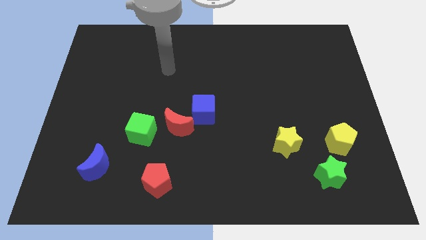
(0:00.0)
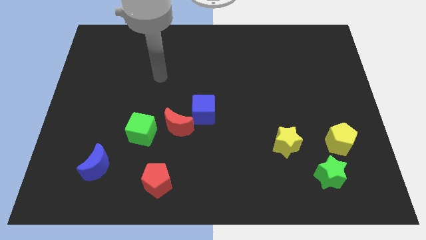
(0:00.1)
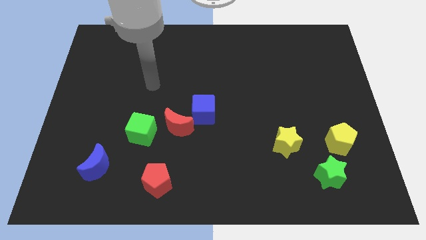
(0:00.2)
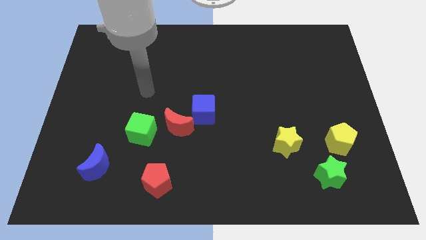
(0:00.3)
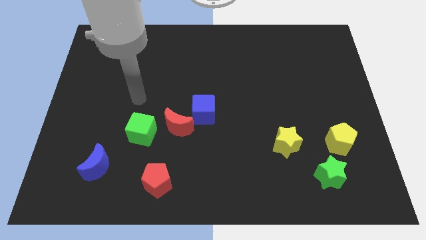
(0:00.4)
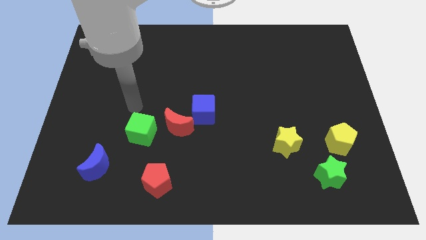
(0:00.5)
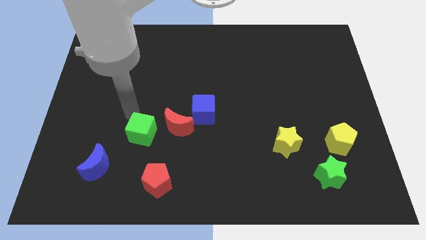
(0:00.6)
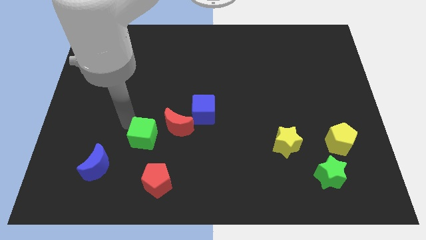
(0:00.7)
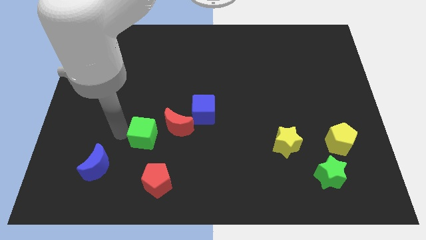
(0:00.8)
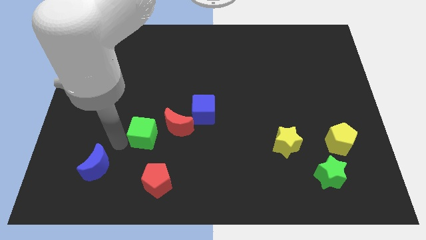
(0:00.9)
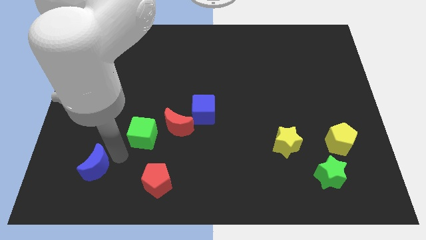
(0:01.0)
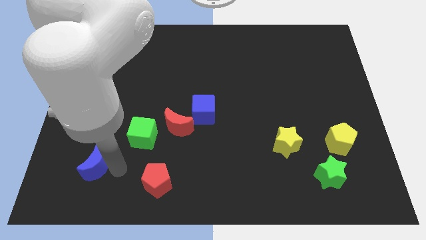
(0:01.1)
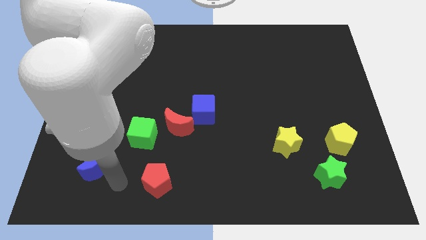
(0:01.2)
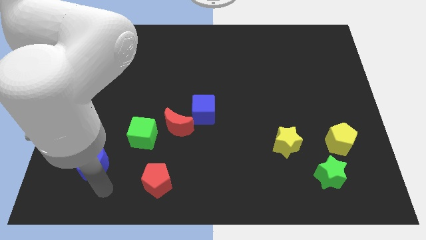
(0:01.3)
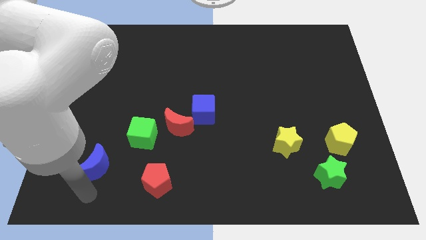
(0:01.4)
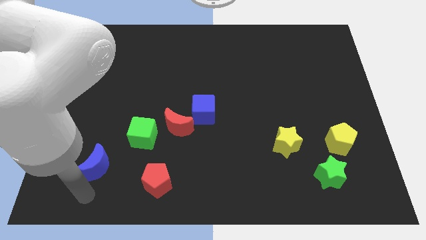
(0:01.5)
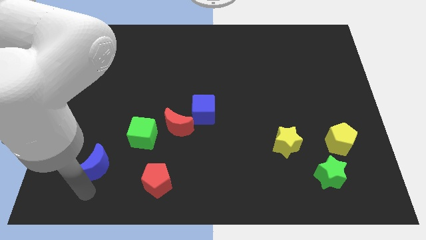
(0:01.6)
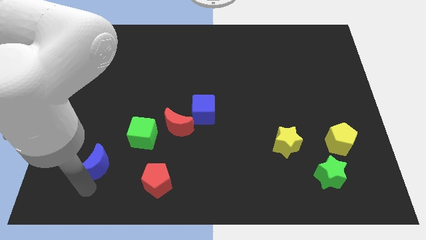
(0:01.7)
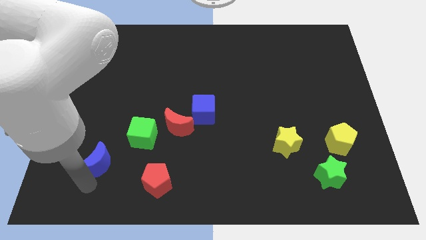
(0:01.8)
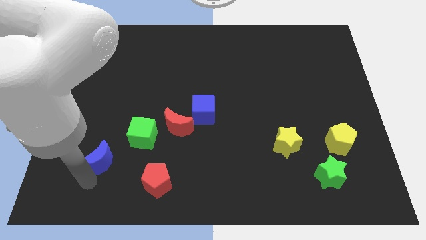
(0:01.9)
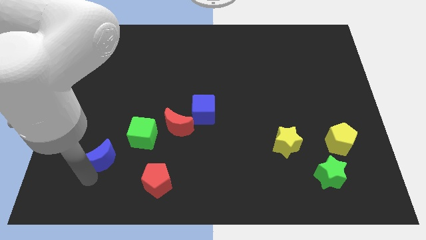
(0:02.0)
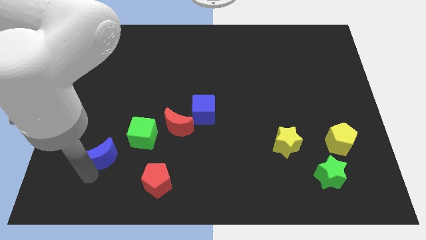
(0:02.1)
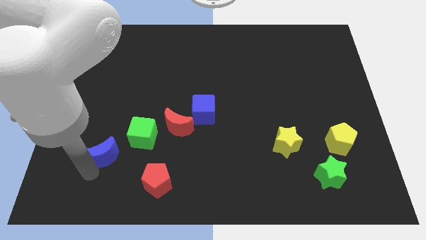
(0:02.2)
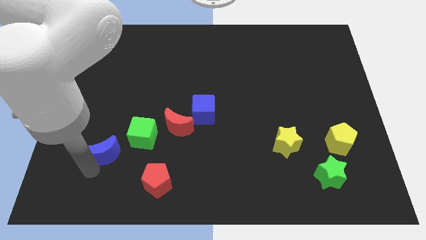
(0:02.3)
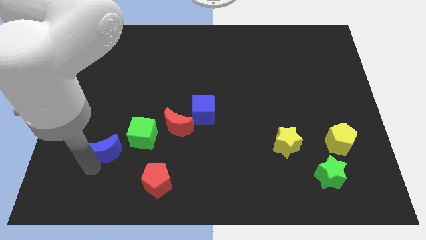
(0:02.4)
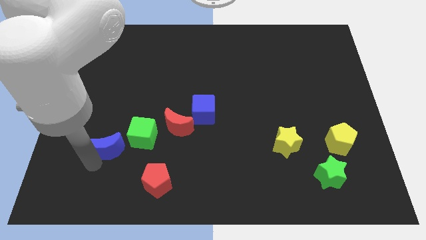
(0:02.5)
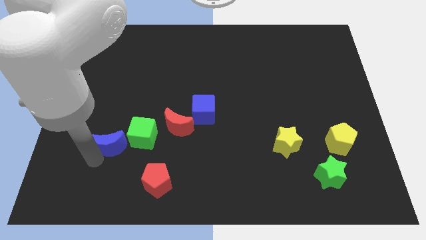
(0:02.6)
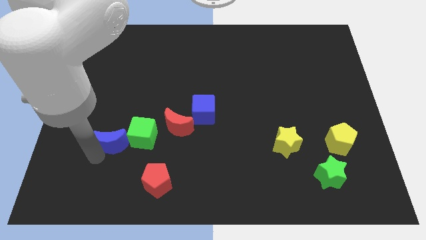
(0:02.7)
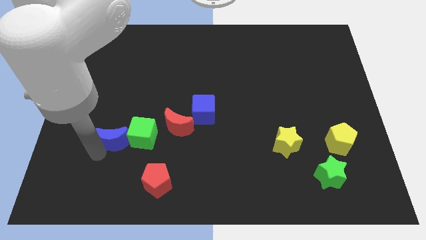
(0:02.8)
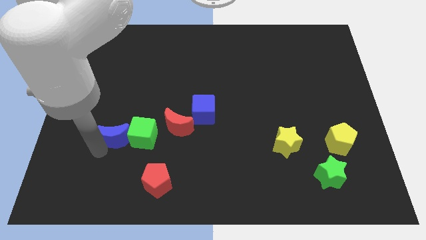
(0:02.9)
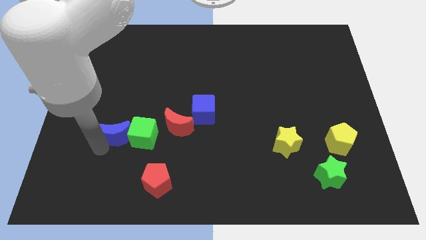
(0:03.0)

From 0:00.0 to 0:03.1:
move the blue moon upwards and then right a little bit

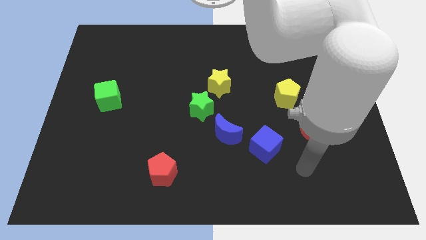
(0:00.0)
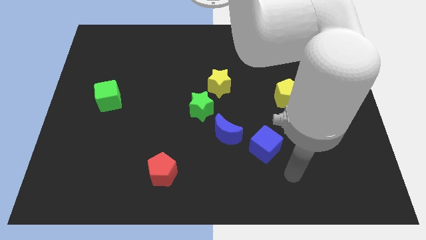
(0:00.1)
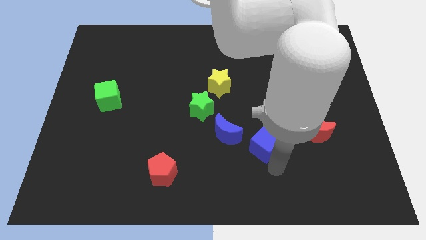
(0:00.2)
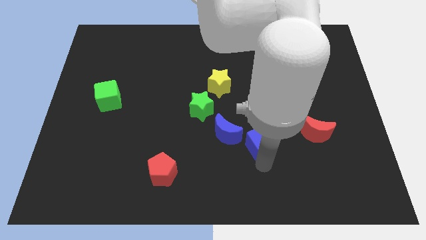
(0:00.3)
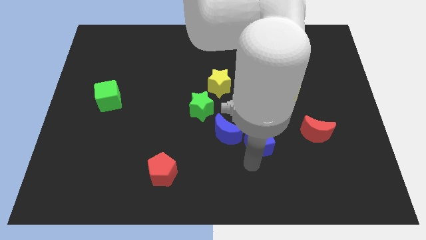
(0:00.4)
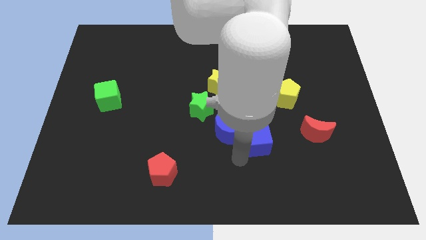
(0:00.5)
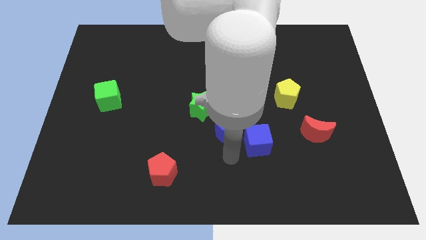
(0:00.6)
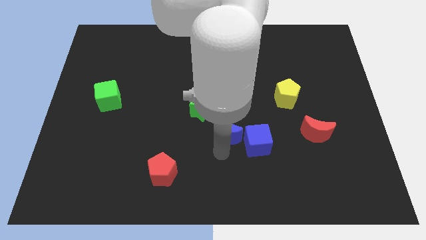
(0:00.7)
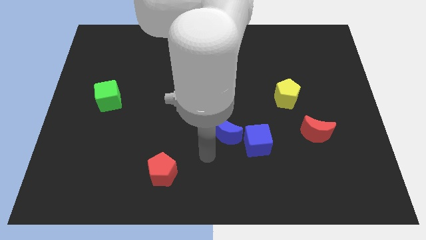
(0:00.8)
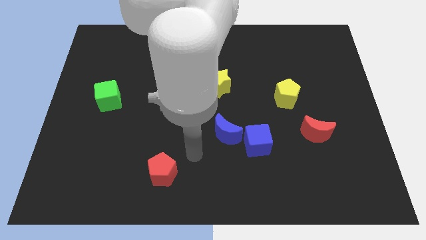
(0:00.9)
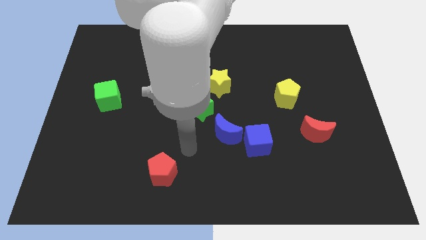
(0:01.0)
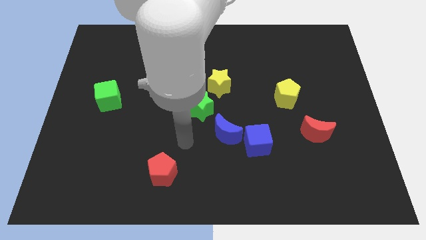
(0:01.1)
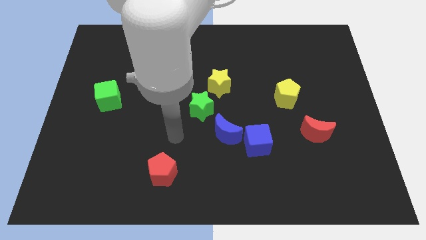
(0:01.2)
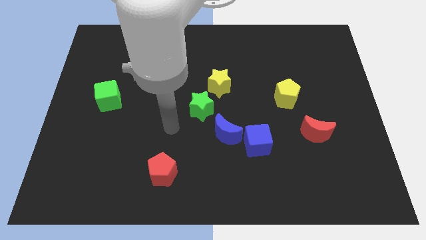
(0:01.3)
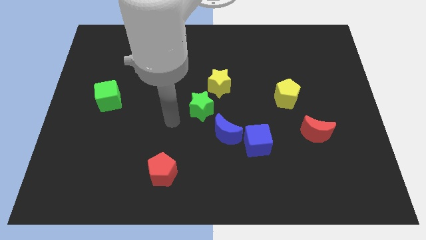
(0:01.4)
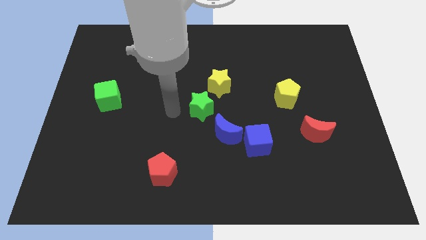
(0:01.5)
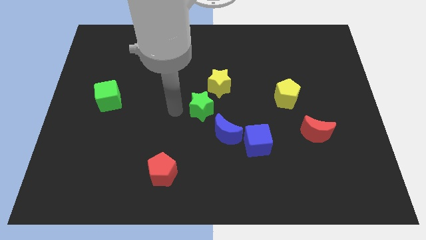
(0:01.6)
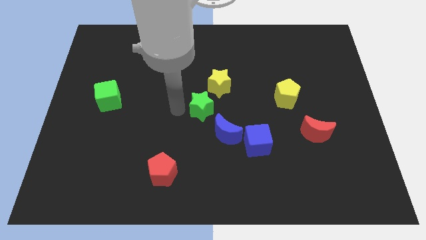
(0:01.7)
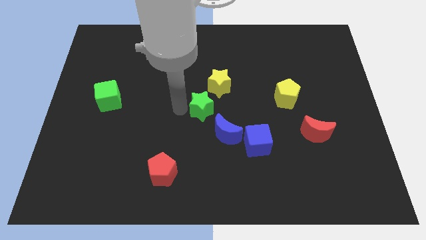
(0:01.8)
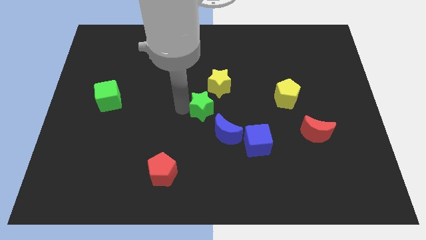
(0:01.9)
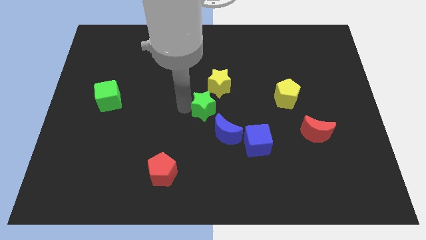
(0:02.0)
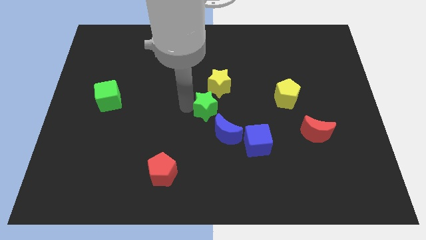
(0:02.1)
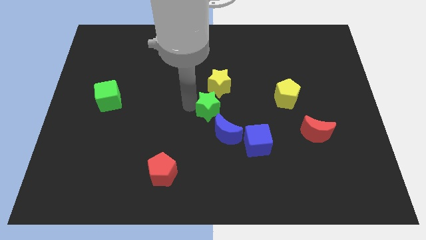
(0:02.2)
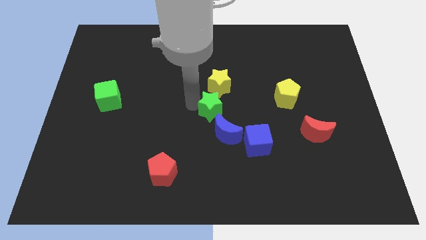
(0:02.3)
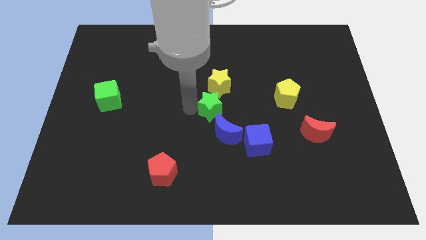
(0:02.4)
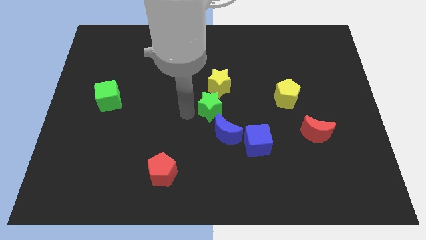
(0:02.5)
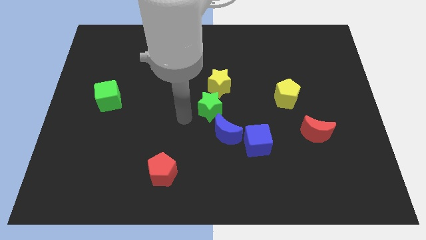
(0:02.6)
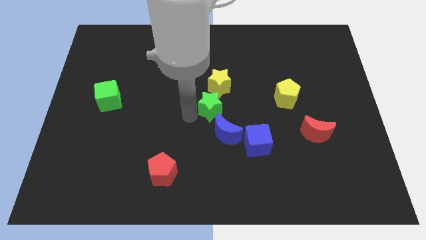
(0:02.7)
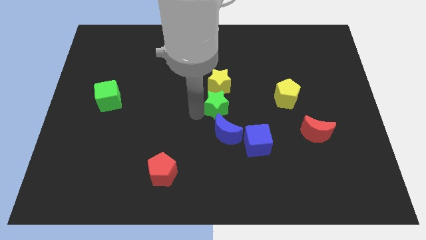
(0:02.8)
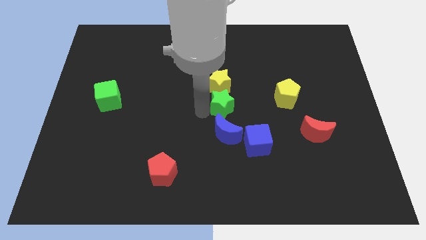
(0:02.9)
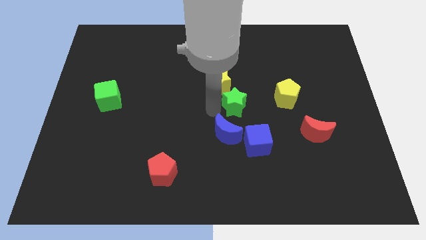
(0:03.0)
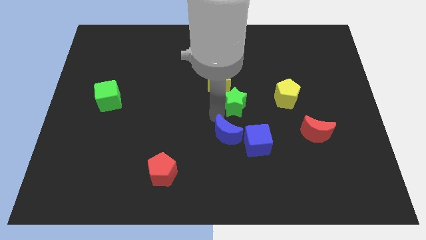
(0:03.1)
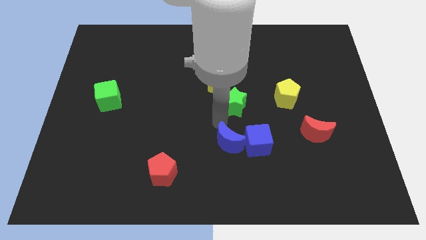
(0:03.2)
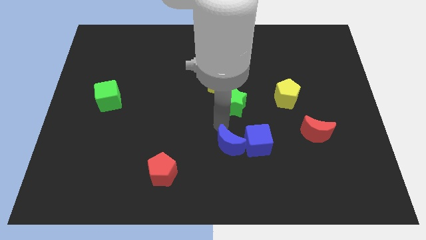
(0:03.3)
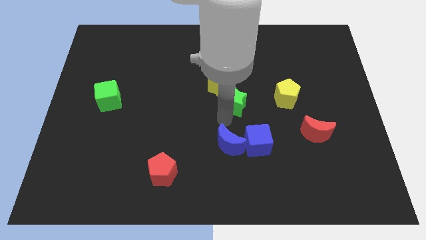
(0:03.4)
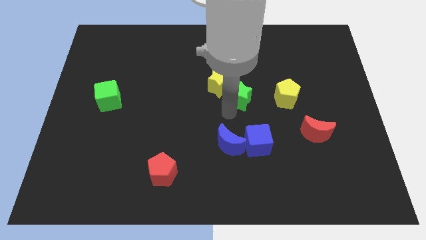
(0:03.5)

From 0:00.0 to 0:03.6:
slightly slide the green star upwards and then to the right

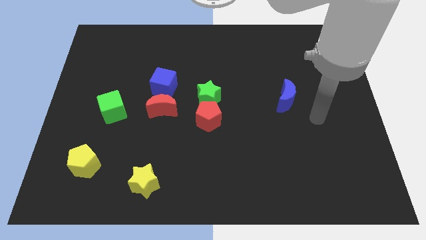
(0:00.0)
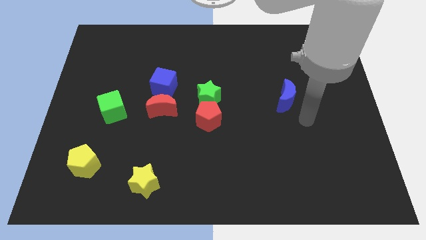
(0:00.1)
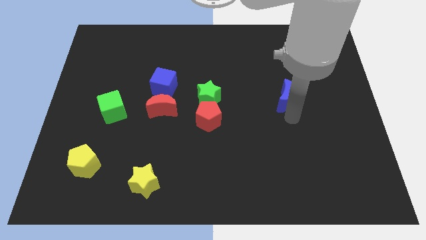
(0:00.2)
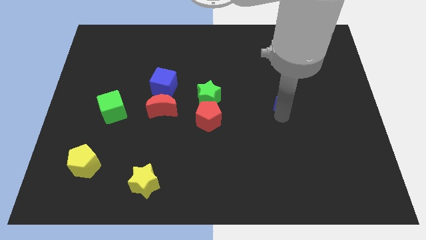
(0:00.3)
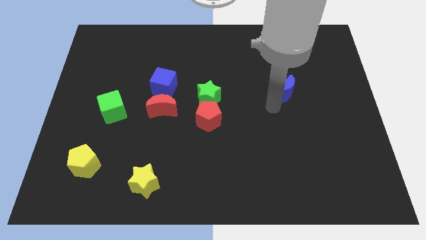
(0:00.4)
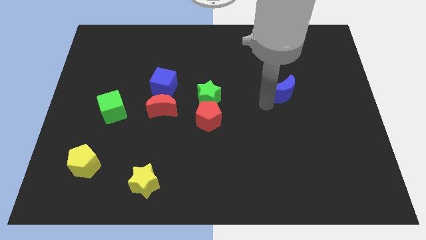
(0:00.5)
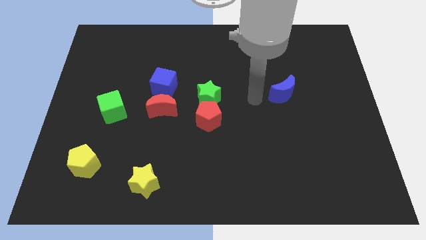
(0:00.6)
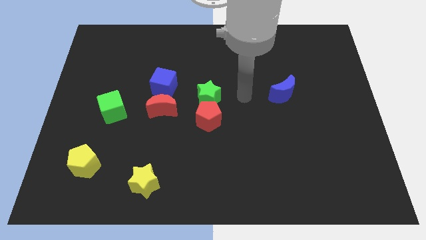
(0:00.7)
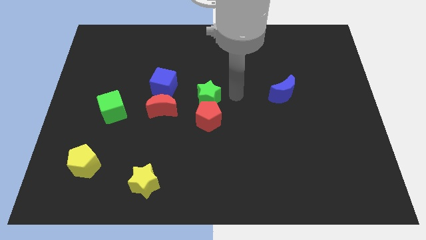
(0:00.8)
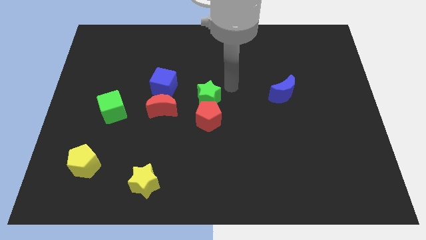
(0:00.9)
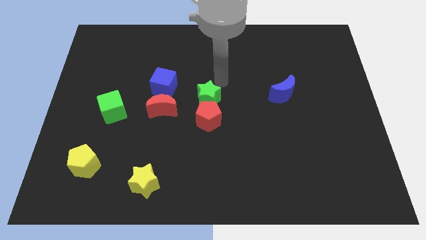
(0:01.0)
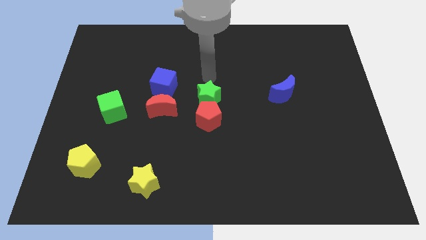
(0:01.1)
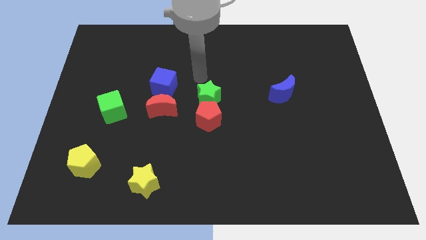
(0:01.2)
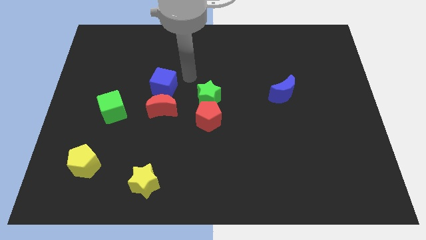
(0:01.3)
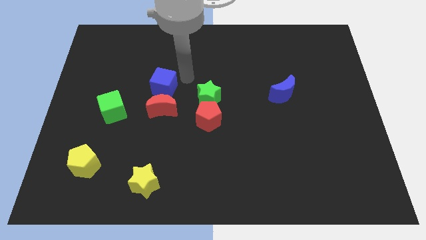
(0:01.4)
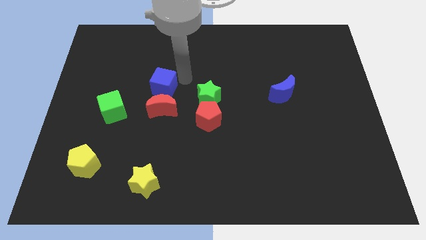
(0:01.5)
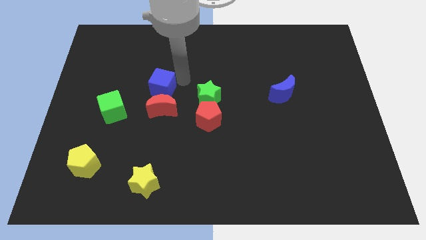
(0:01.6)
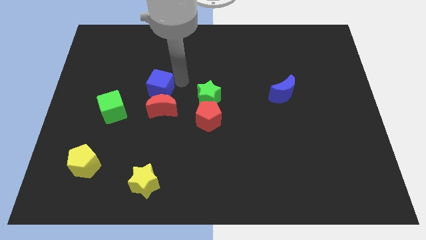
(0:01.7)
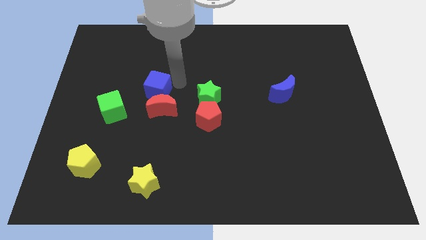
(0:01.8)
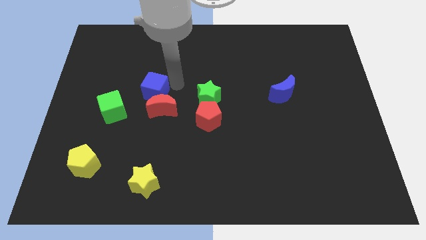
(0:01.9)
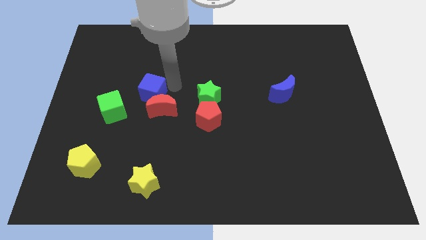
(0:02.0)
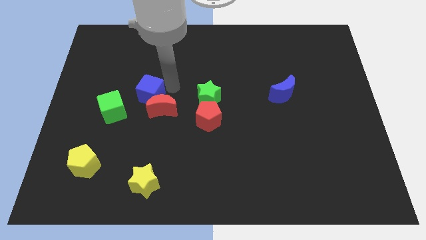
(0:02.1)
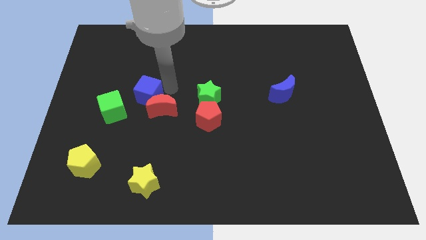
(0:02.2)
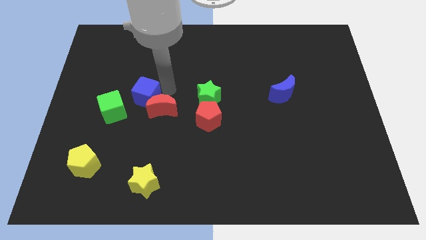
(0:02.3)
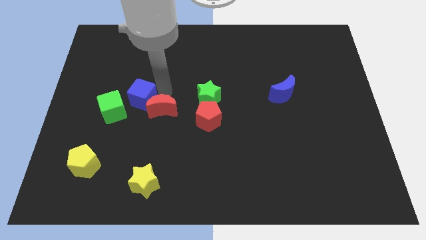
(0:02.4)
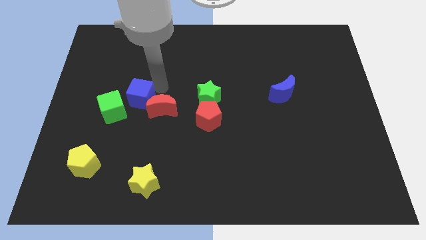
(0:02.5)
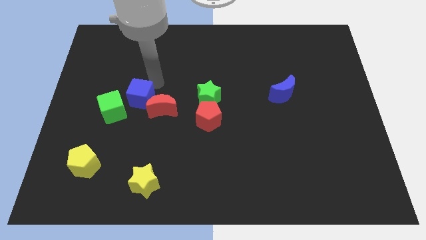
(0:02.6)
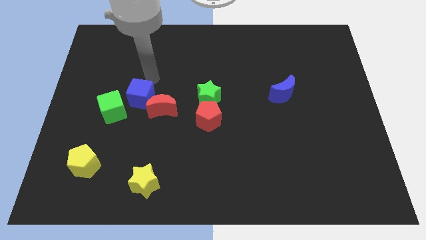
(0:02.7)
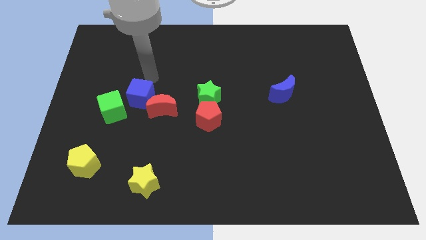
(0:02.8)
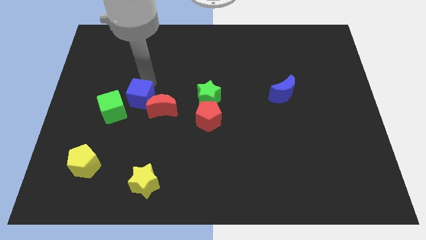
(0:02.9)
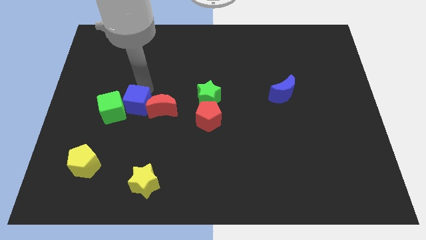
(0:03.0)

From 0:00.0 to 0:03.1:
push the blue cube downwards and then left somewhat
